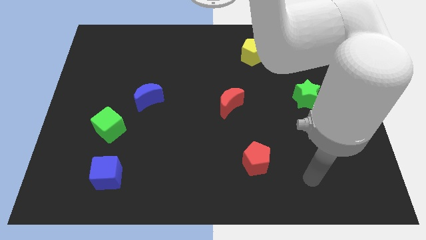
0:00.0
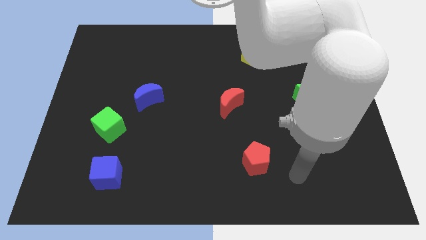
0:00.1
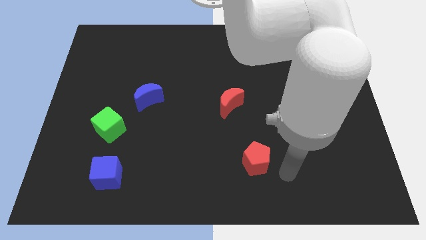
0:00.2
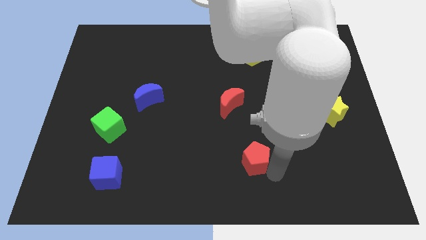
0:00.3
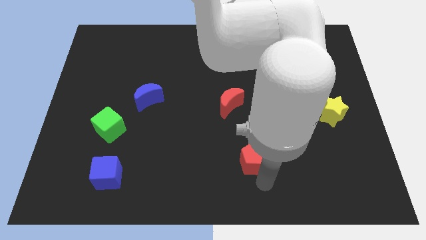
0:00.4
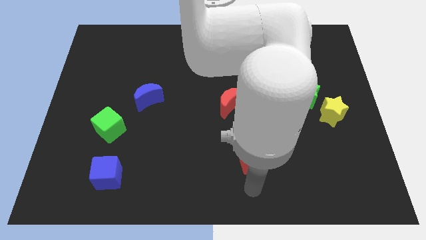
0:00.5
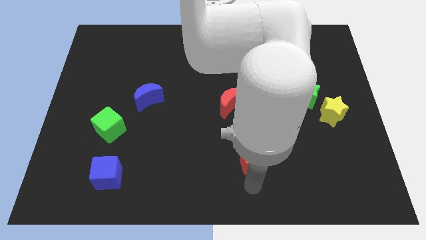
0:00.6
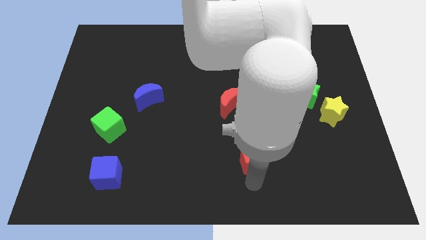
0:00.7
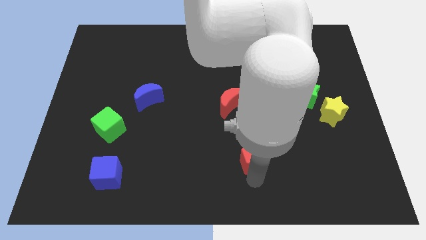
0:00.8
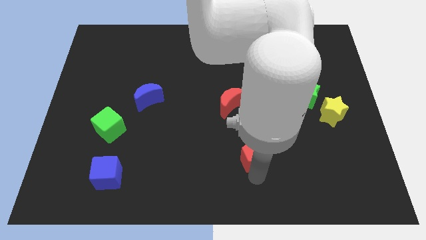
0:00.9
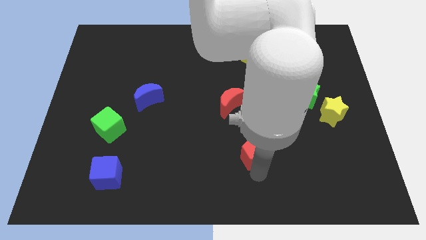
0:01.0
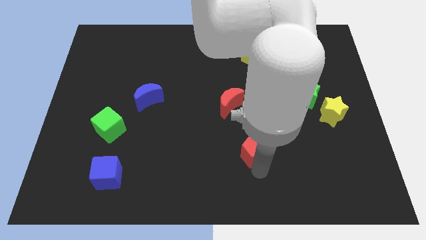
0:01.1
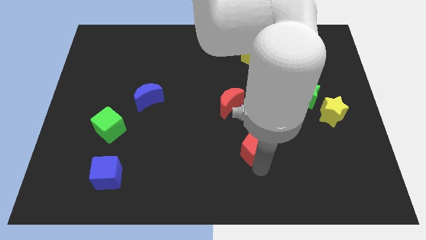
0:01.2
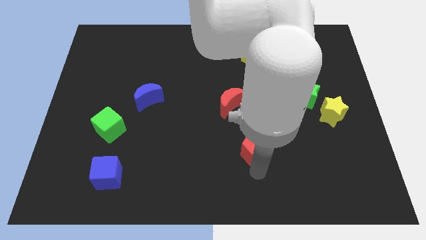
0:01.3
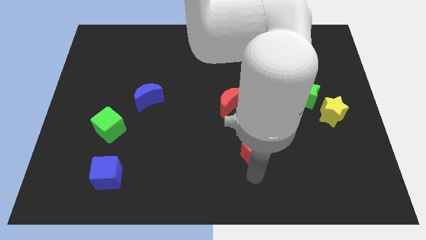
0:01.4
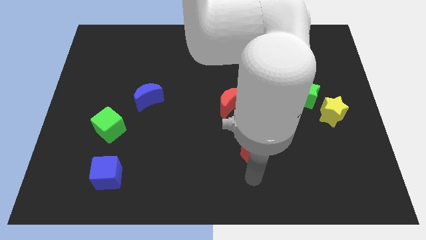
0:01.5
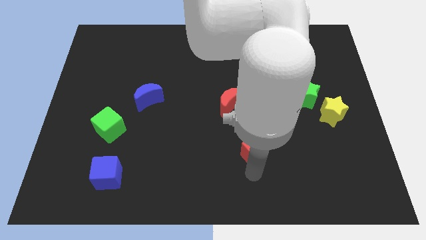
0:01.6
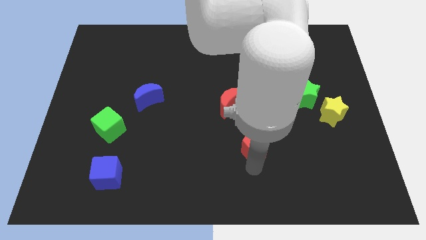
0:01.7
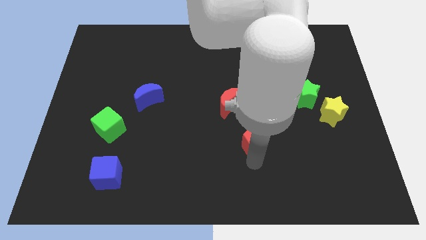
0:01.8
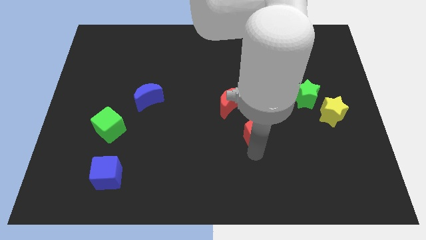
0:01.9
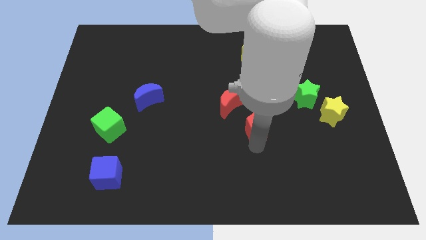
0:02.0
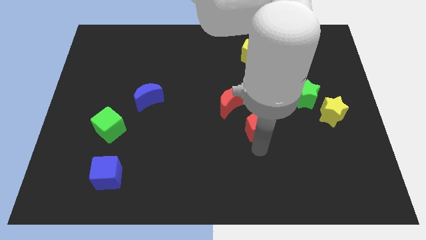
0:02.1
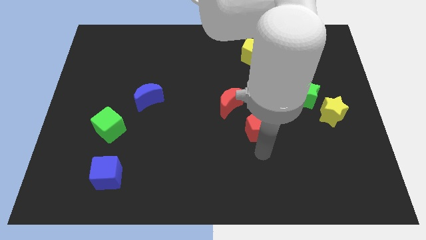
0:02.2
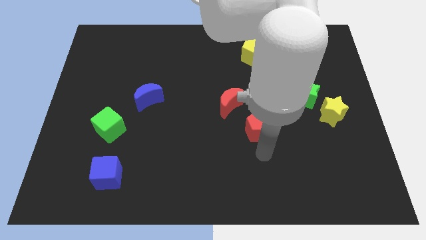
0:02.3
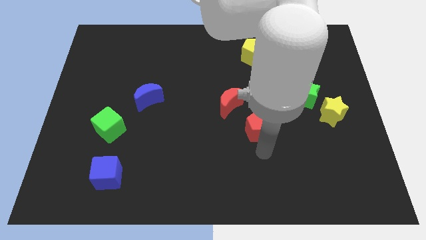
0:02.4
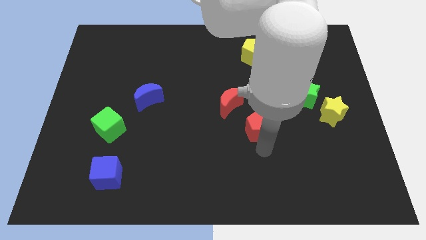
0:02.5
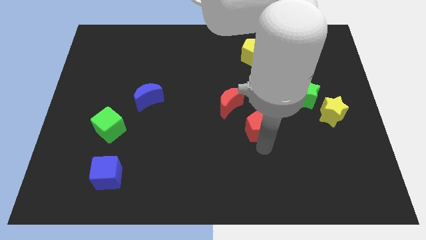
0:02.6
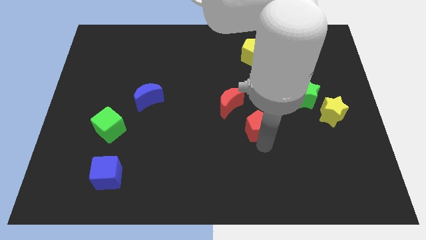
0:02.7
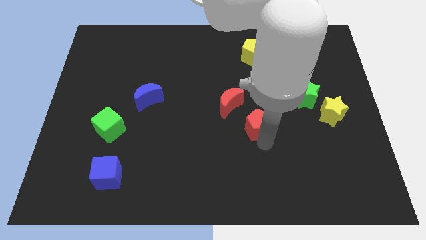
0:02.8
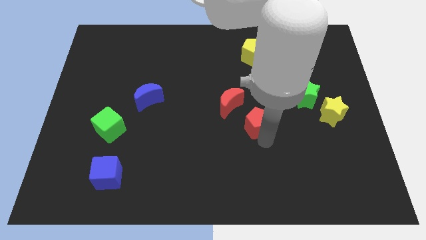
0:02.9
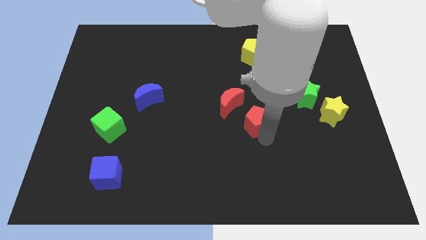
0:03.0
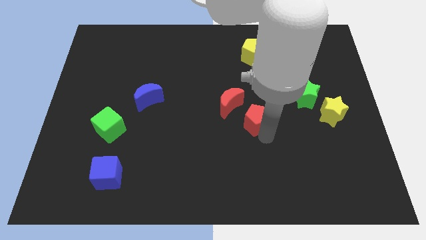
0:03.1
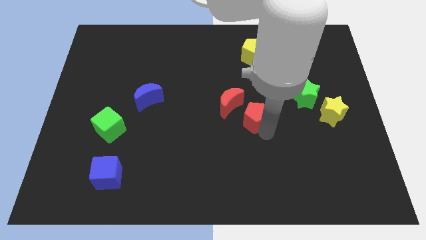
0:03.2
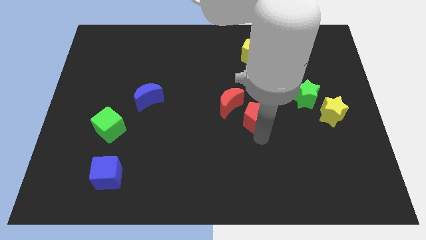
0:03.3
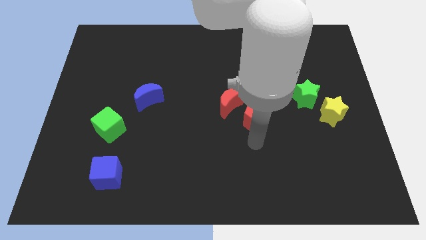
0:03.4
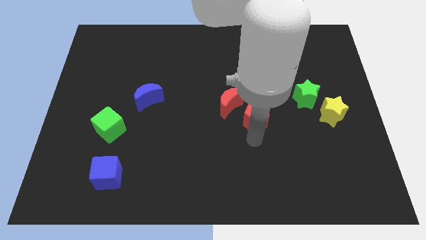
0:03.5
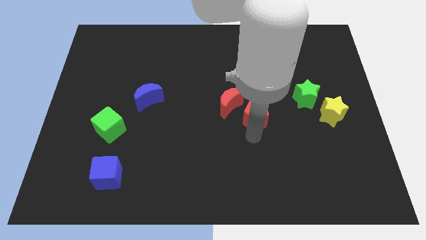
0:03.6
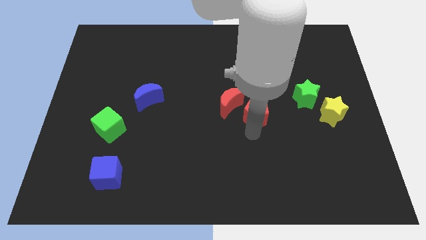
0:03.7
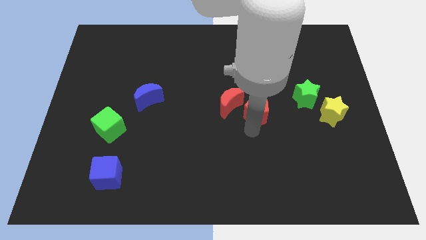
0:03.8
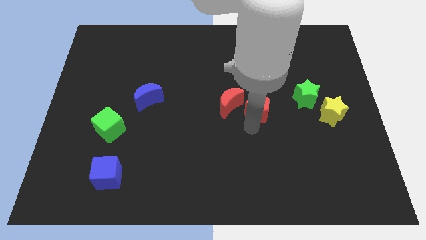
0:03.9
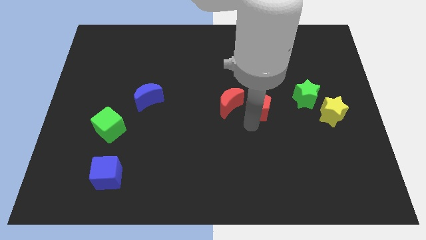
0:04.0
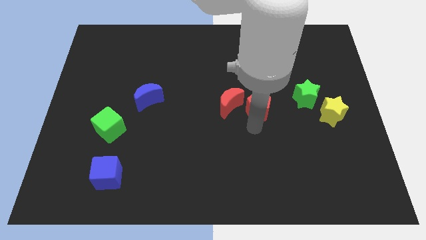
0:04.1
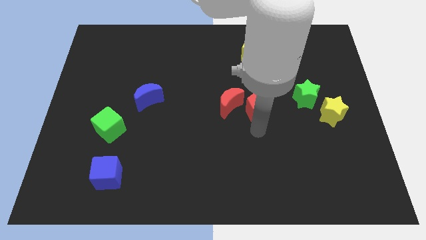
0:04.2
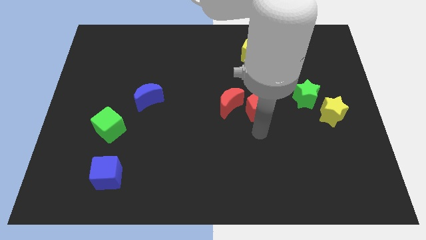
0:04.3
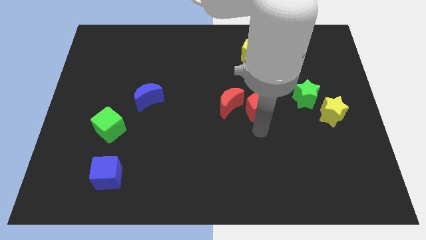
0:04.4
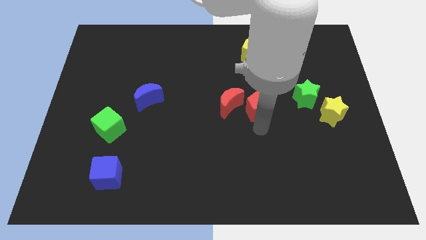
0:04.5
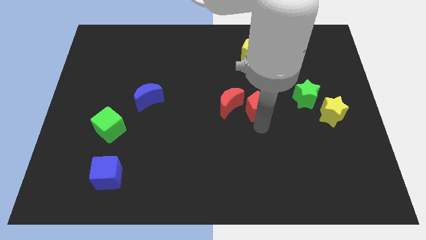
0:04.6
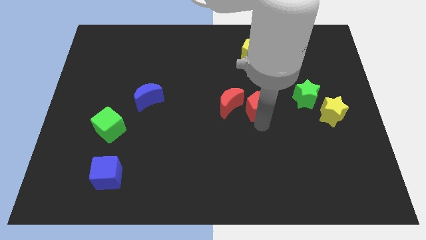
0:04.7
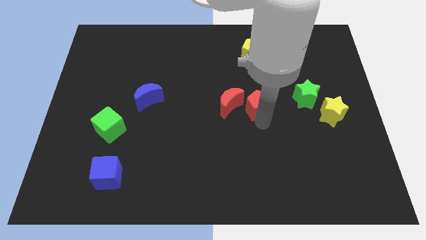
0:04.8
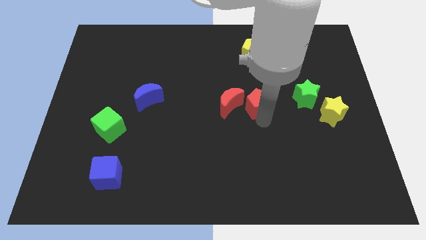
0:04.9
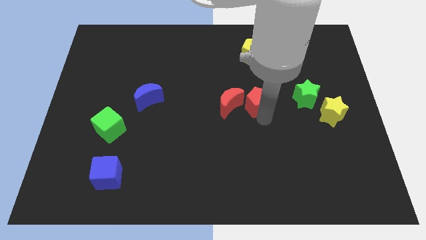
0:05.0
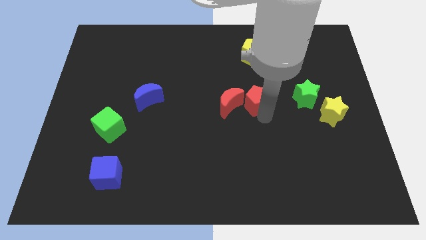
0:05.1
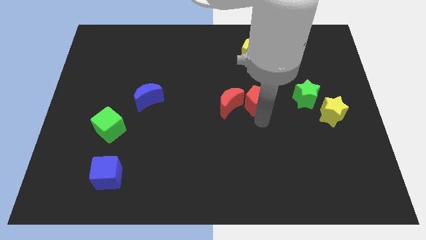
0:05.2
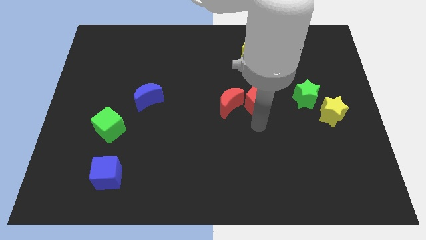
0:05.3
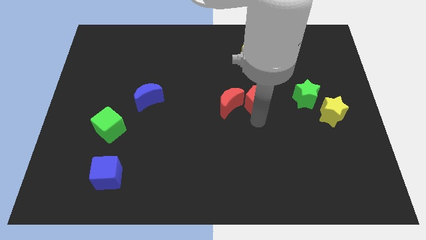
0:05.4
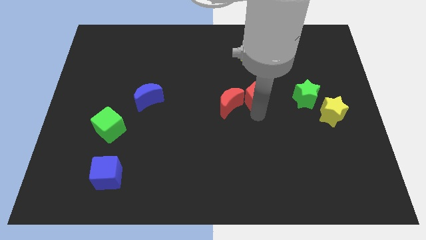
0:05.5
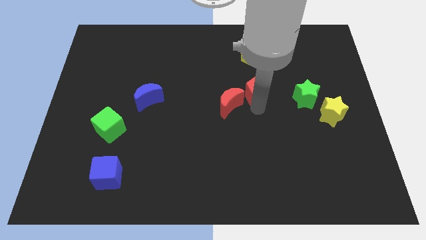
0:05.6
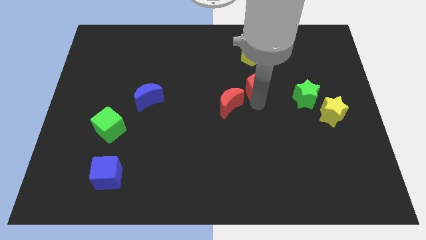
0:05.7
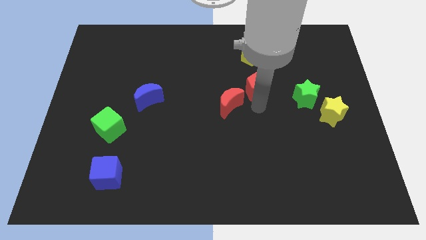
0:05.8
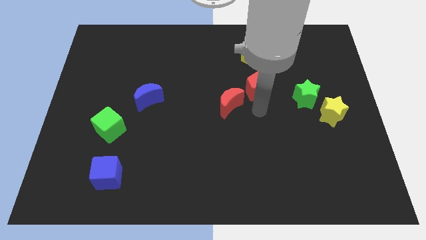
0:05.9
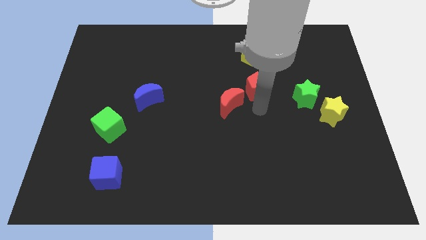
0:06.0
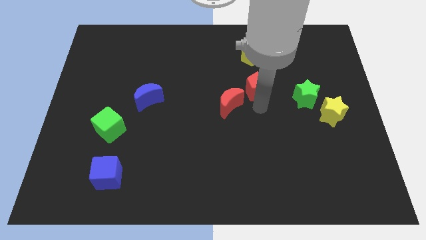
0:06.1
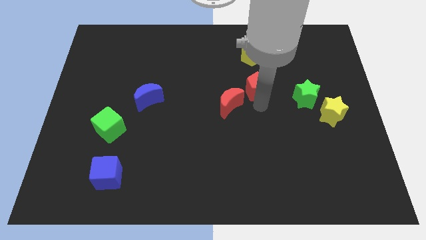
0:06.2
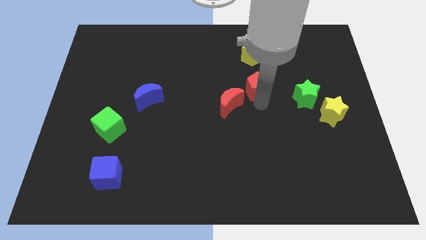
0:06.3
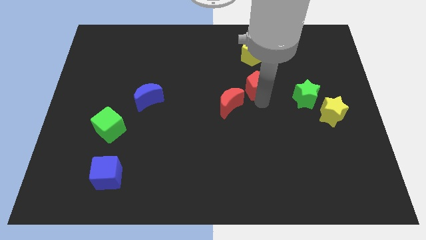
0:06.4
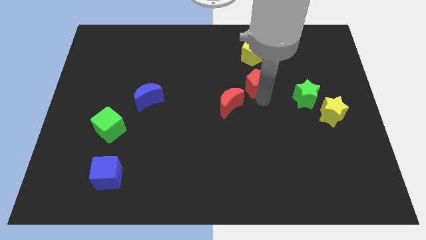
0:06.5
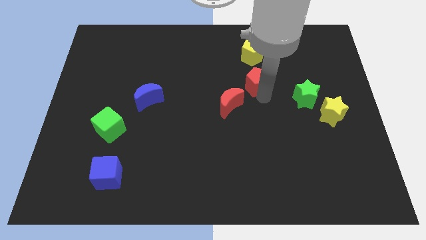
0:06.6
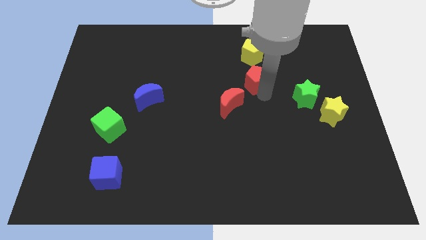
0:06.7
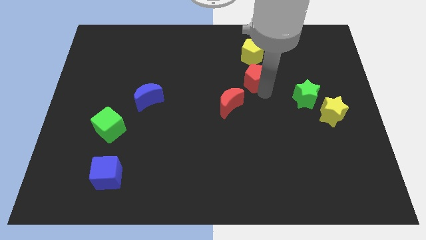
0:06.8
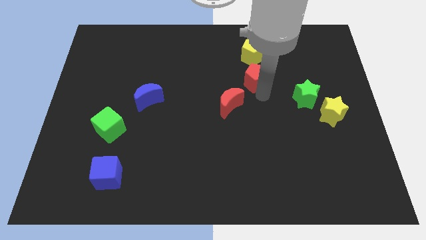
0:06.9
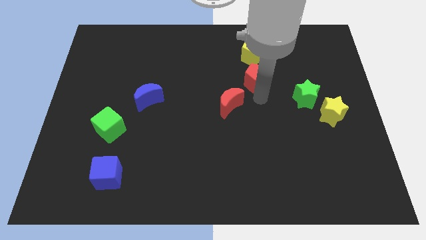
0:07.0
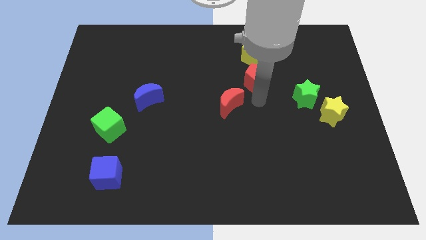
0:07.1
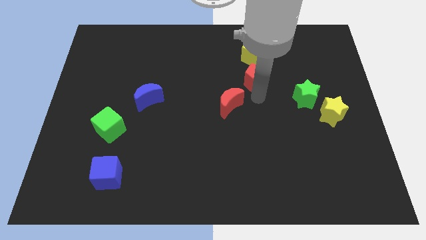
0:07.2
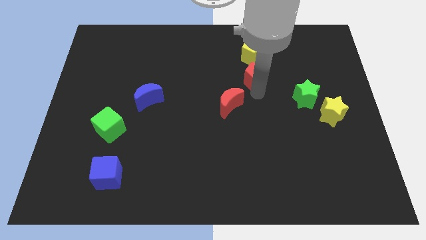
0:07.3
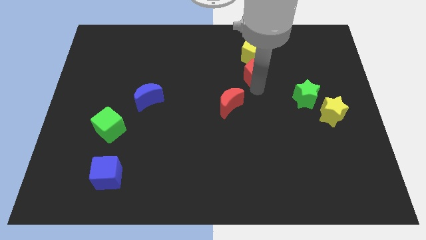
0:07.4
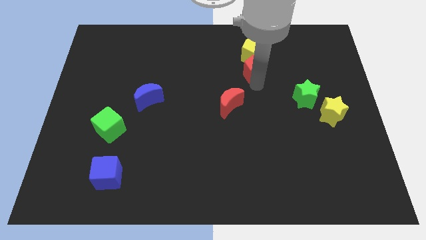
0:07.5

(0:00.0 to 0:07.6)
slide the red pentagon next to the yellow pentagon
